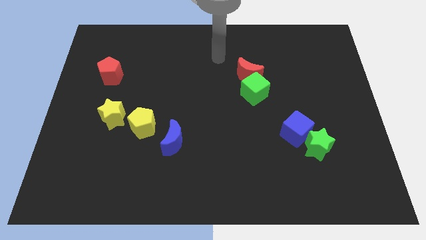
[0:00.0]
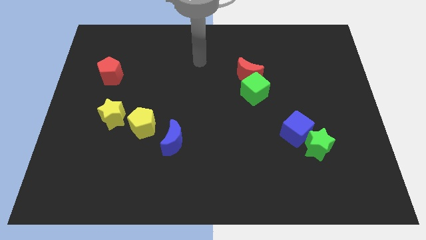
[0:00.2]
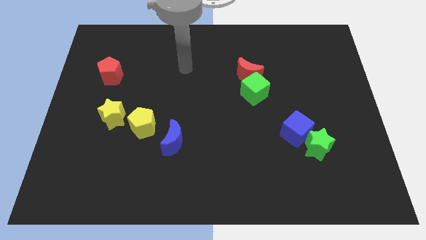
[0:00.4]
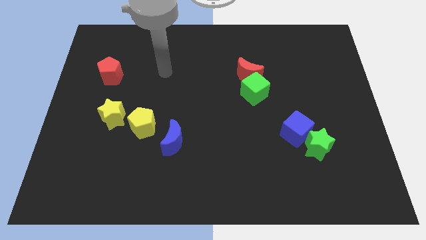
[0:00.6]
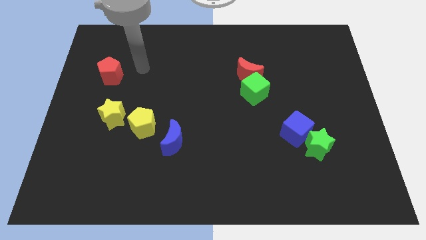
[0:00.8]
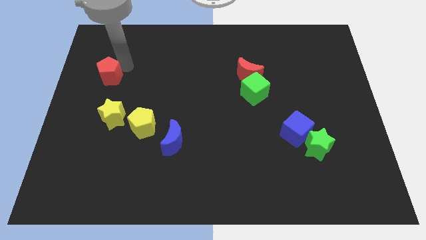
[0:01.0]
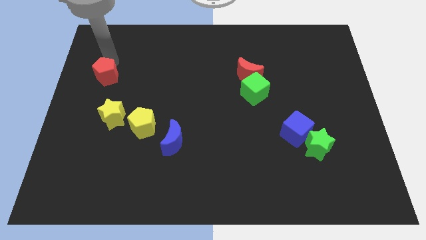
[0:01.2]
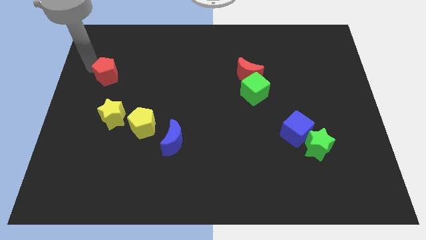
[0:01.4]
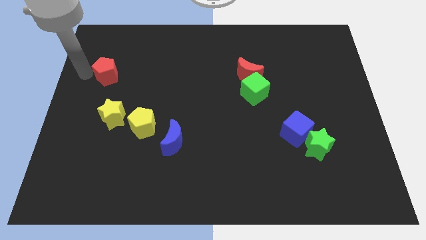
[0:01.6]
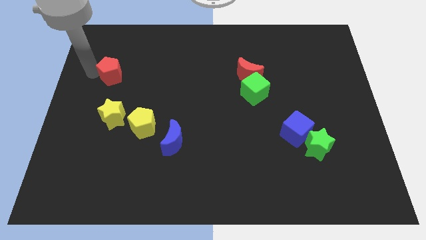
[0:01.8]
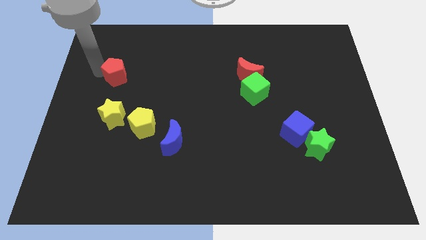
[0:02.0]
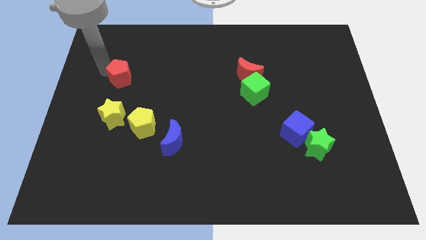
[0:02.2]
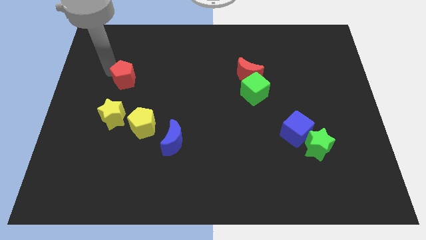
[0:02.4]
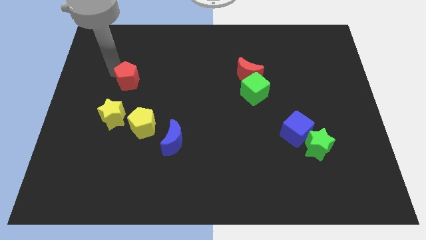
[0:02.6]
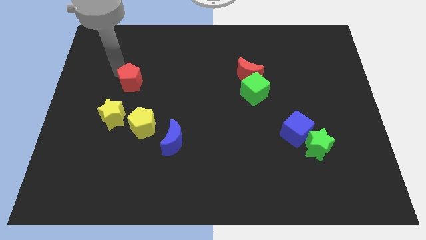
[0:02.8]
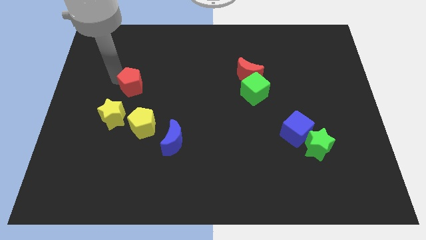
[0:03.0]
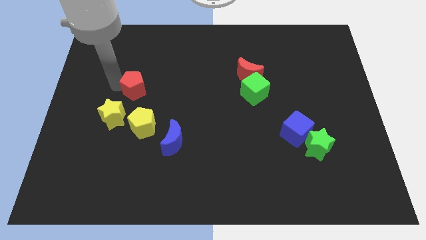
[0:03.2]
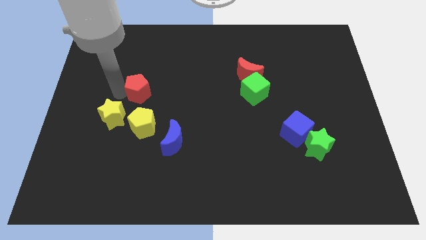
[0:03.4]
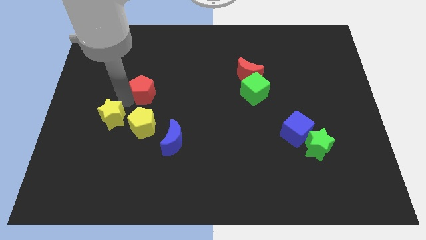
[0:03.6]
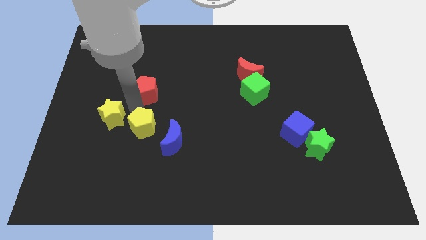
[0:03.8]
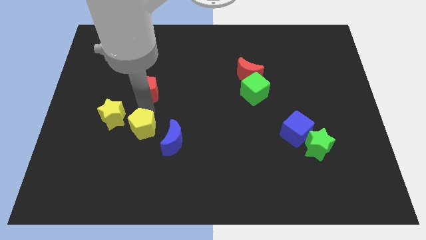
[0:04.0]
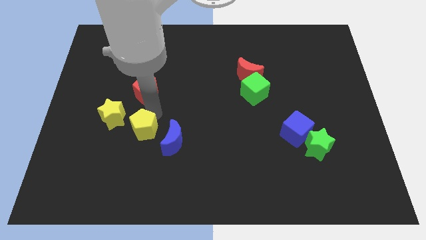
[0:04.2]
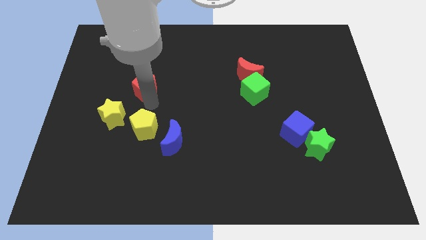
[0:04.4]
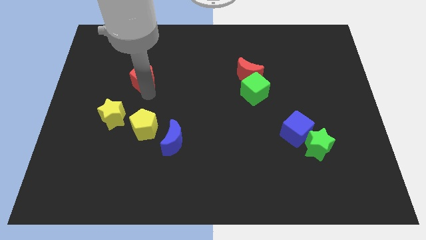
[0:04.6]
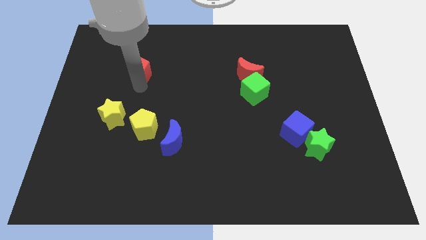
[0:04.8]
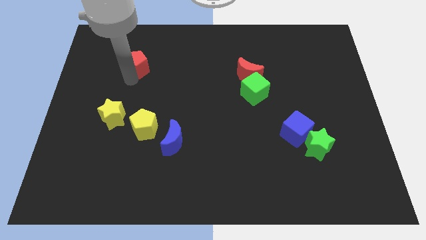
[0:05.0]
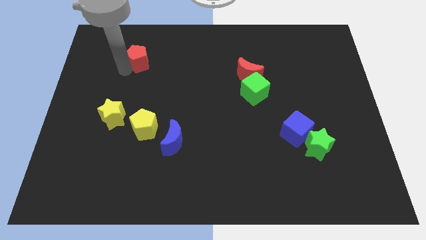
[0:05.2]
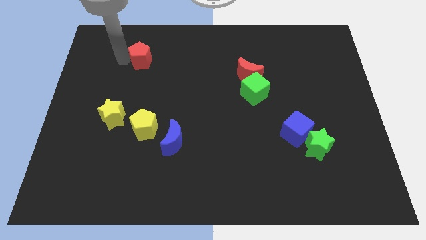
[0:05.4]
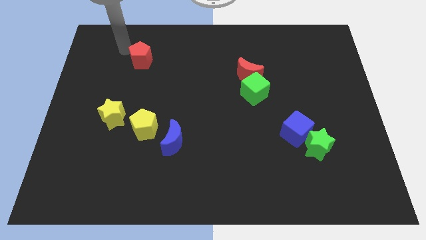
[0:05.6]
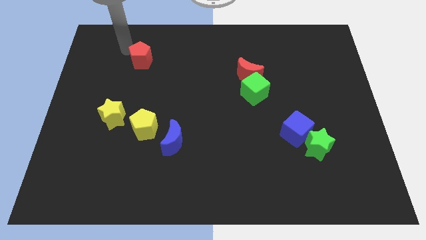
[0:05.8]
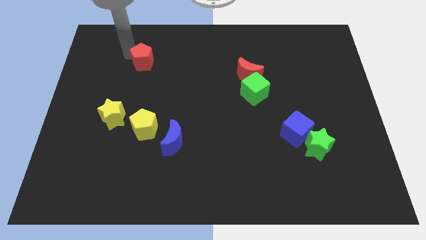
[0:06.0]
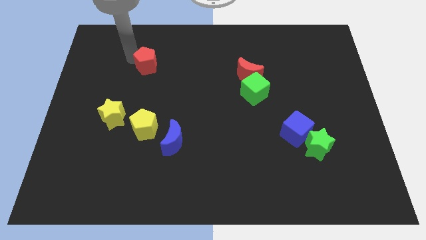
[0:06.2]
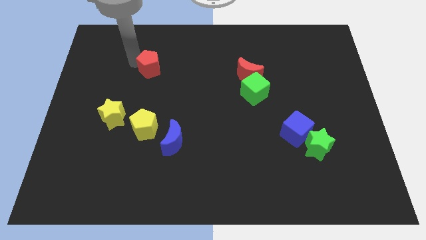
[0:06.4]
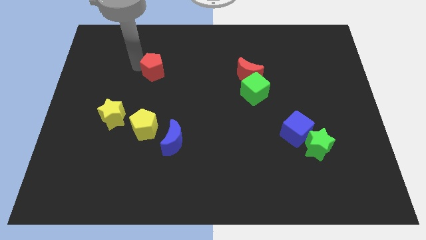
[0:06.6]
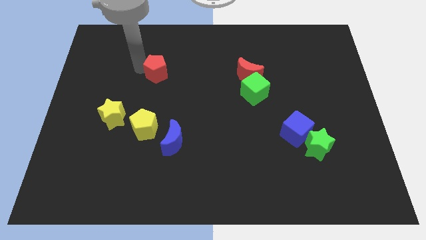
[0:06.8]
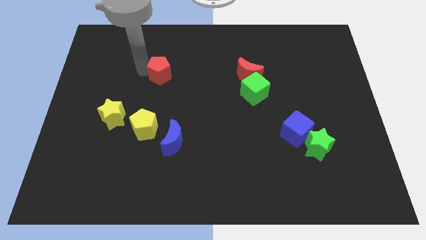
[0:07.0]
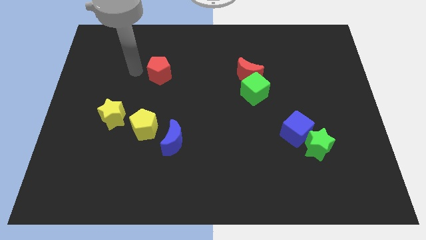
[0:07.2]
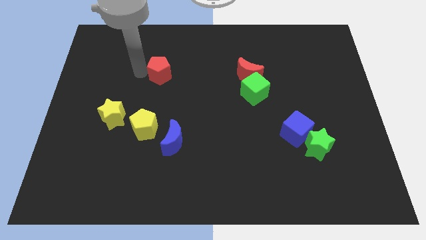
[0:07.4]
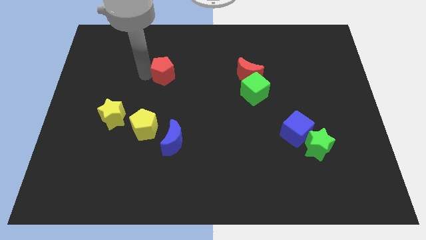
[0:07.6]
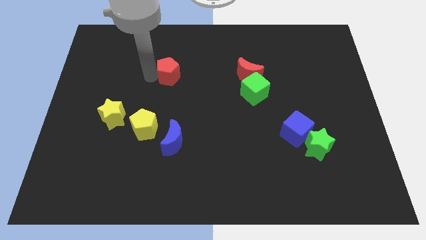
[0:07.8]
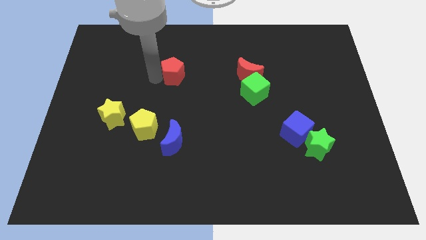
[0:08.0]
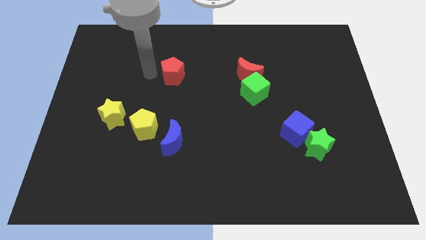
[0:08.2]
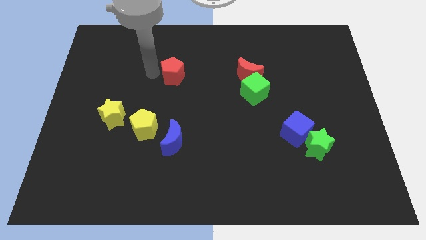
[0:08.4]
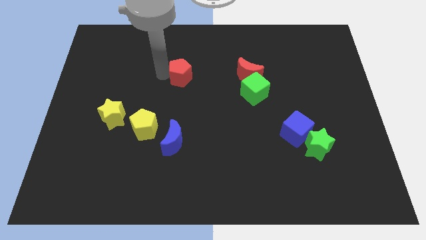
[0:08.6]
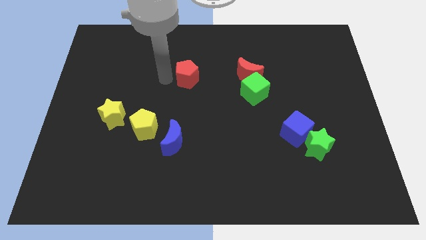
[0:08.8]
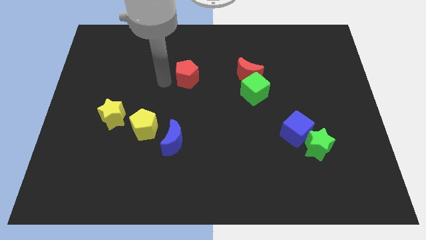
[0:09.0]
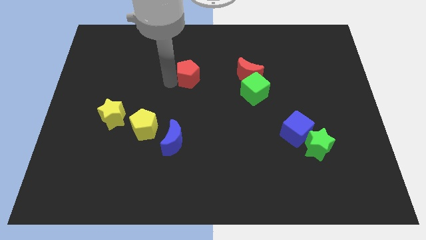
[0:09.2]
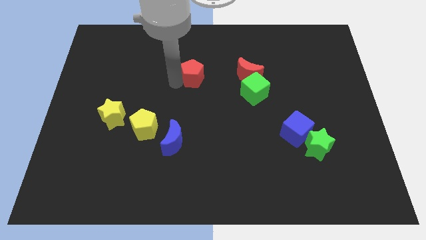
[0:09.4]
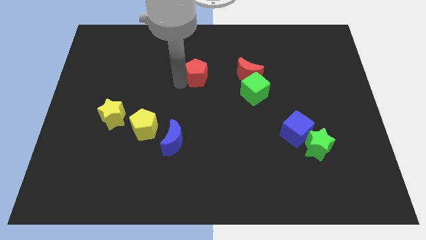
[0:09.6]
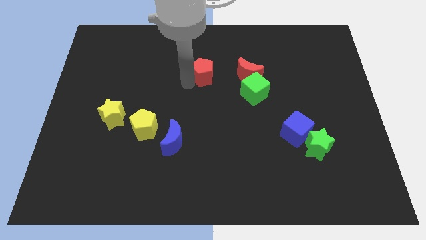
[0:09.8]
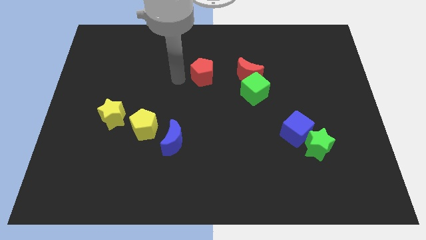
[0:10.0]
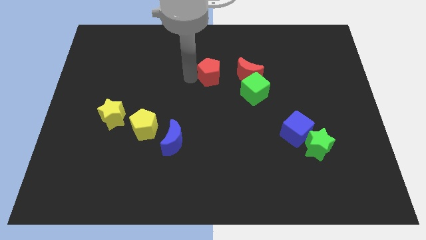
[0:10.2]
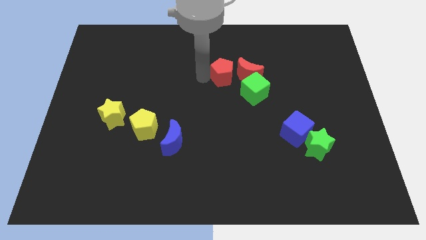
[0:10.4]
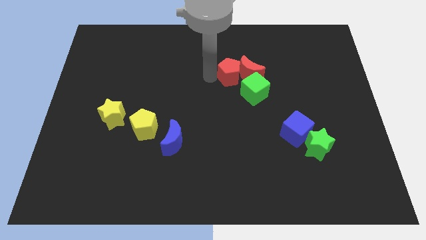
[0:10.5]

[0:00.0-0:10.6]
put the red pentagon to the red moon

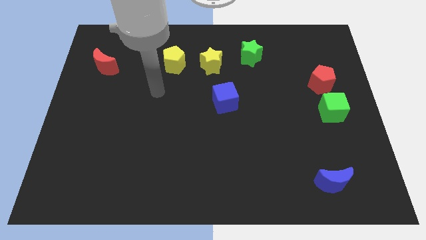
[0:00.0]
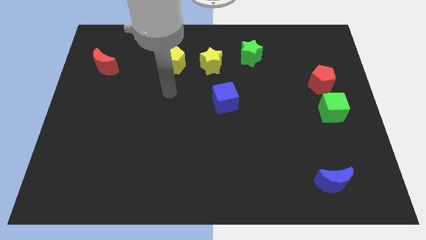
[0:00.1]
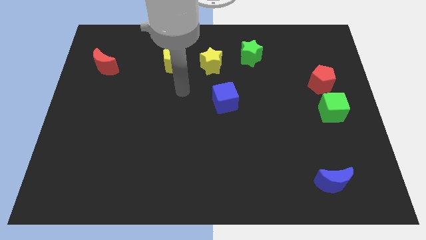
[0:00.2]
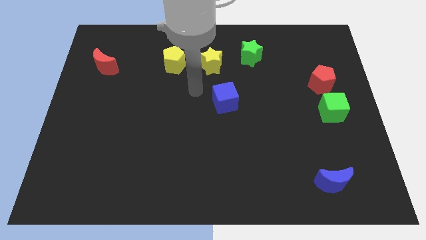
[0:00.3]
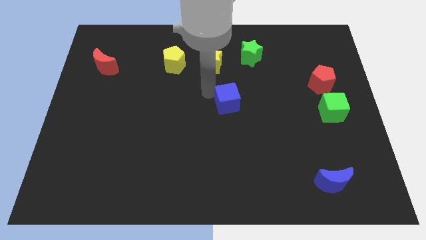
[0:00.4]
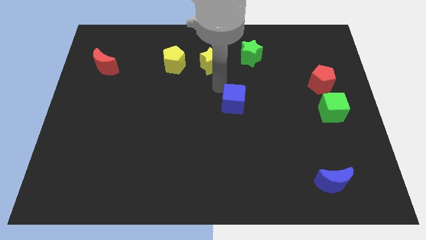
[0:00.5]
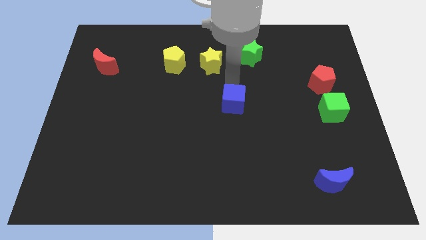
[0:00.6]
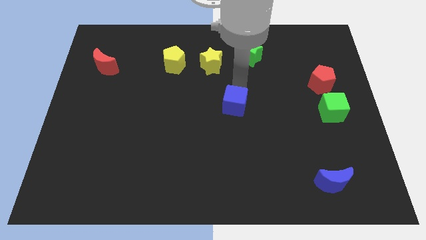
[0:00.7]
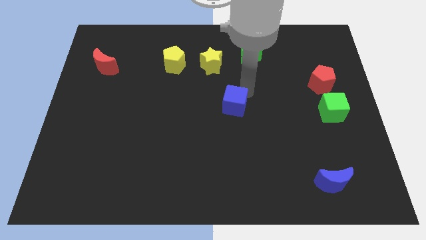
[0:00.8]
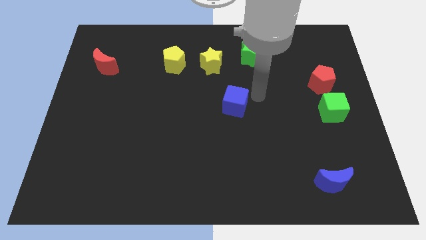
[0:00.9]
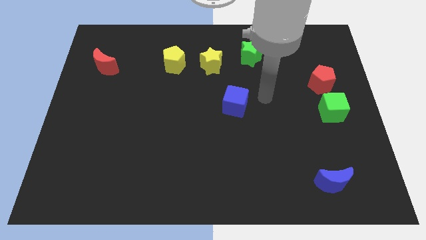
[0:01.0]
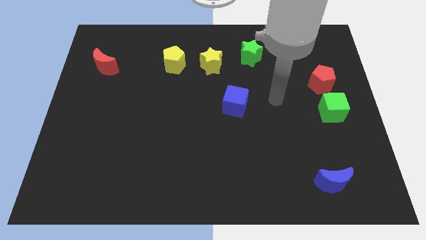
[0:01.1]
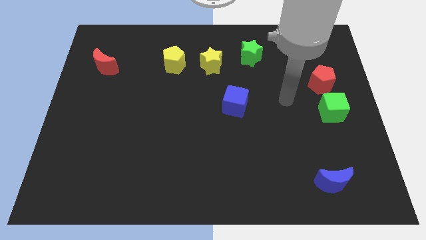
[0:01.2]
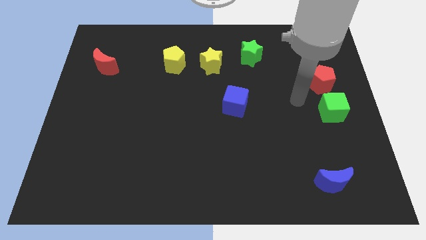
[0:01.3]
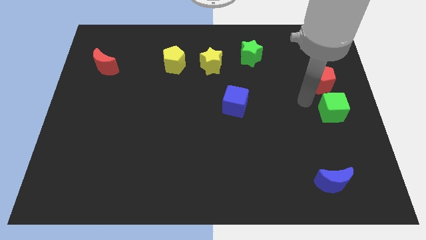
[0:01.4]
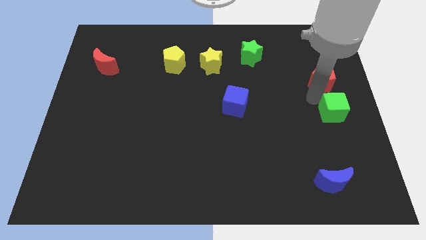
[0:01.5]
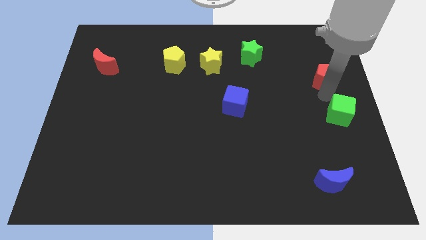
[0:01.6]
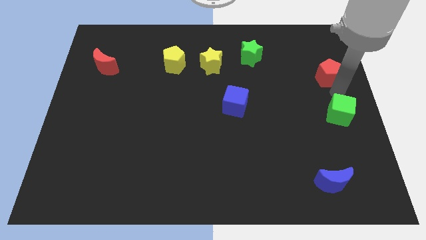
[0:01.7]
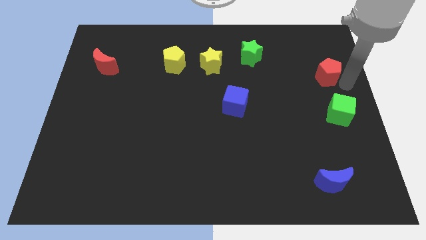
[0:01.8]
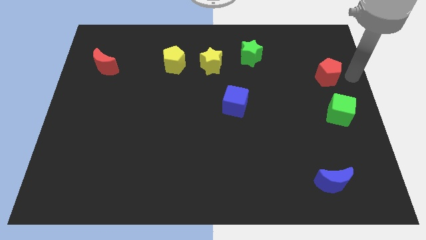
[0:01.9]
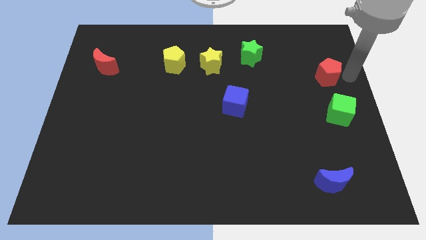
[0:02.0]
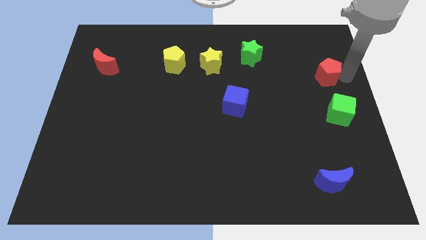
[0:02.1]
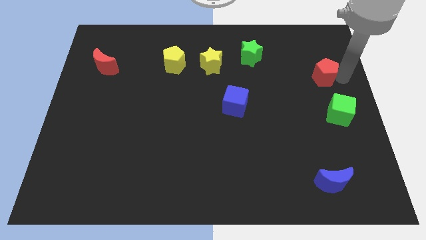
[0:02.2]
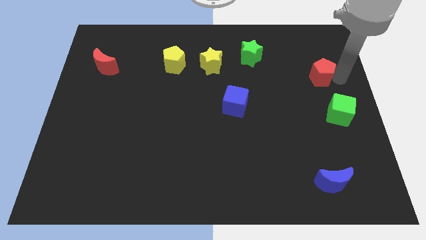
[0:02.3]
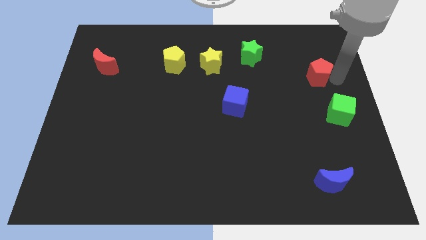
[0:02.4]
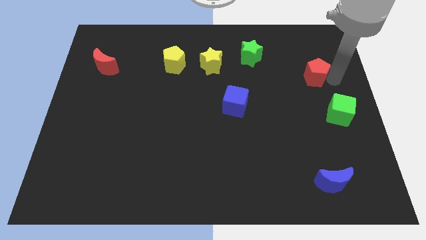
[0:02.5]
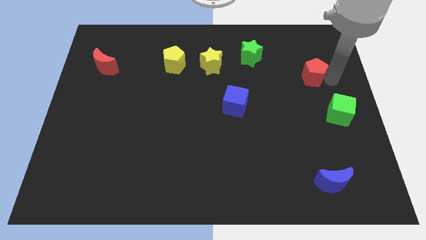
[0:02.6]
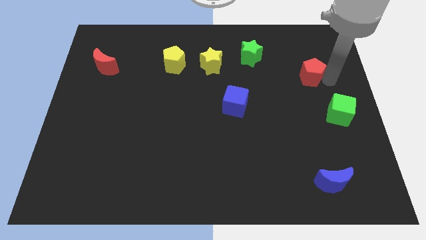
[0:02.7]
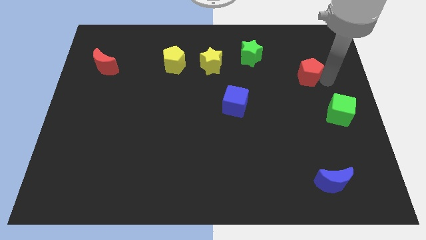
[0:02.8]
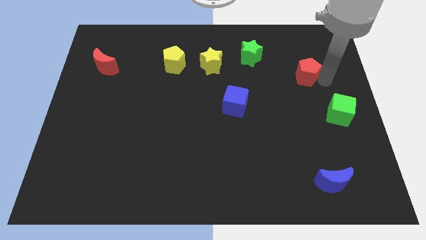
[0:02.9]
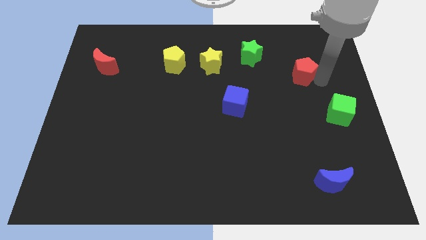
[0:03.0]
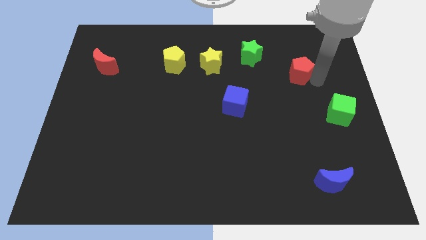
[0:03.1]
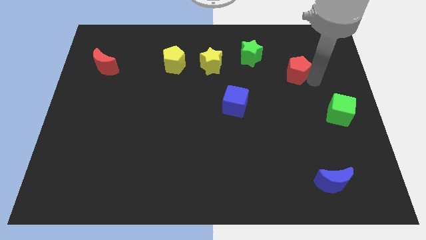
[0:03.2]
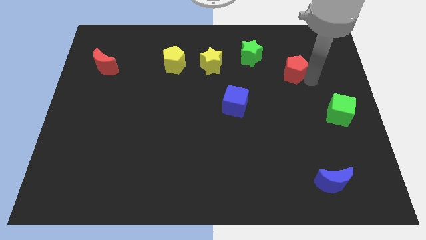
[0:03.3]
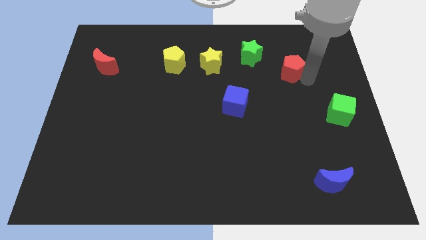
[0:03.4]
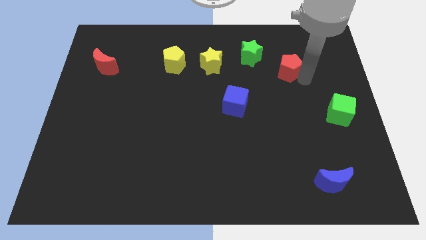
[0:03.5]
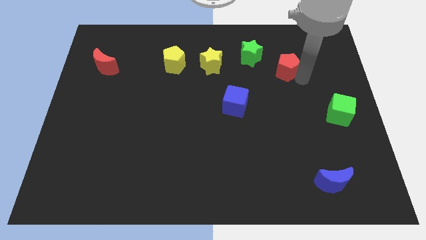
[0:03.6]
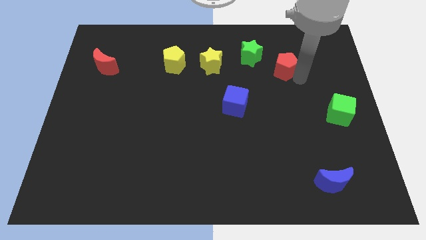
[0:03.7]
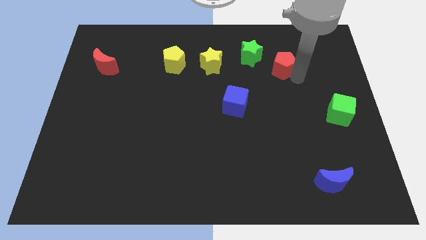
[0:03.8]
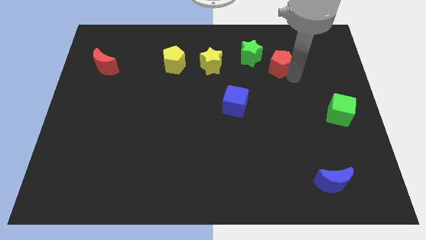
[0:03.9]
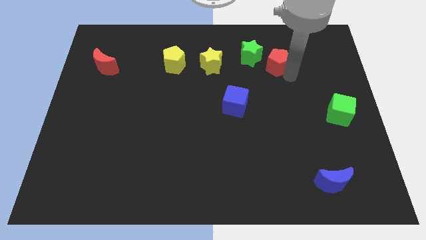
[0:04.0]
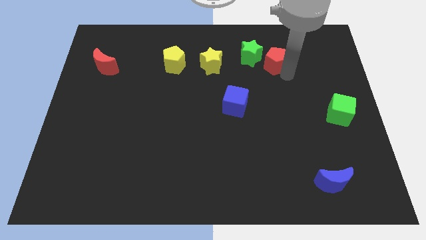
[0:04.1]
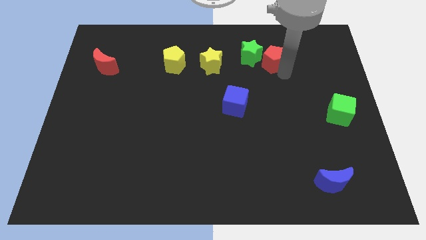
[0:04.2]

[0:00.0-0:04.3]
push the red pentagon to the green star
